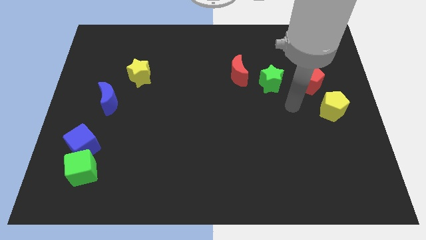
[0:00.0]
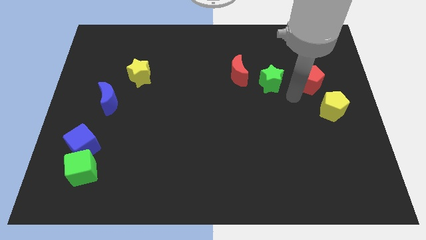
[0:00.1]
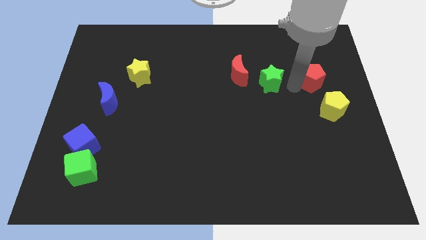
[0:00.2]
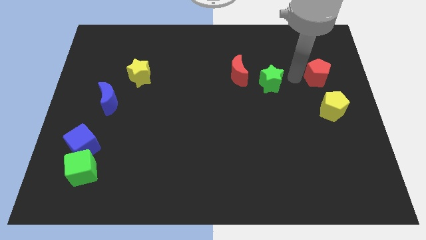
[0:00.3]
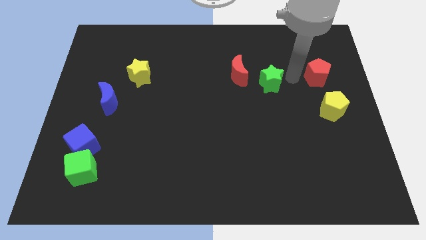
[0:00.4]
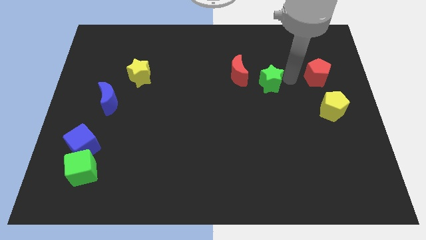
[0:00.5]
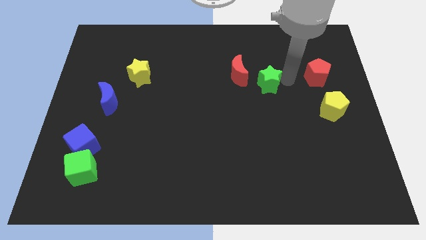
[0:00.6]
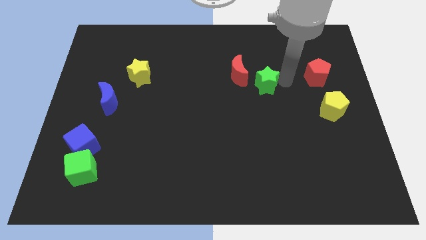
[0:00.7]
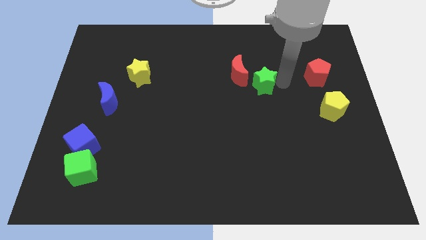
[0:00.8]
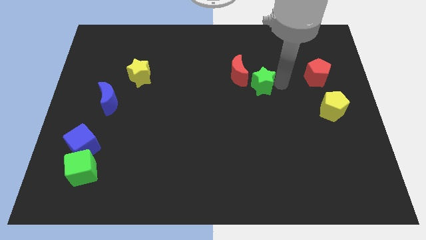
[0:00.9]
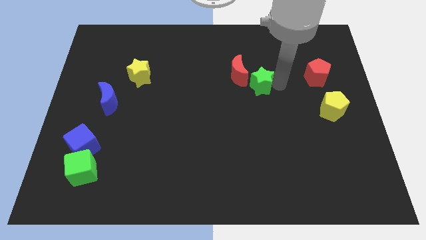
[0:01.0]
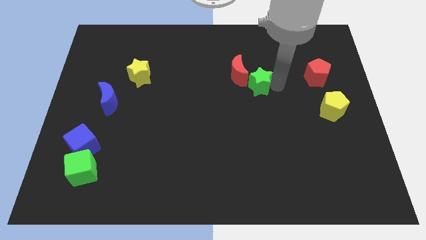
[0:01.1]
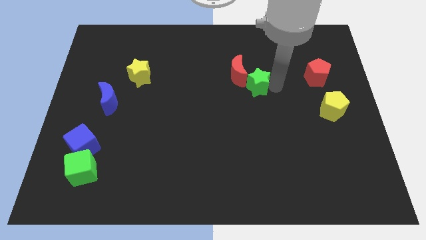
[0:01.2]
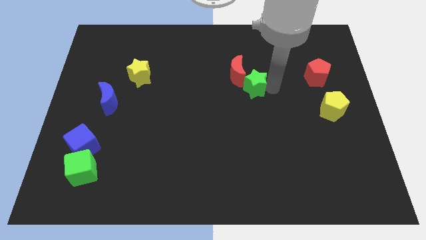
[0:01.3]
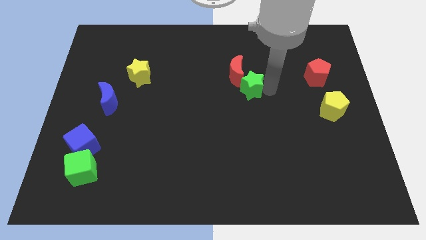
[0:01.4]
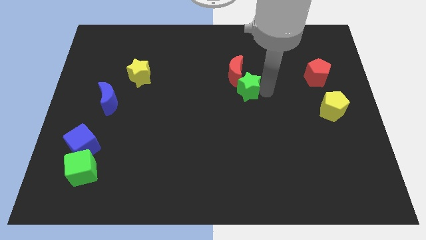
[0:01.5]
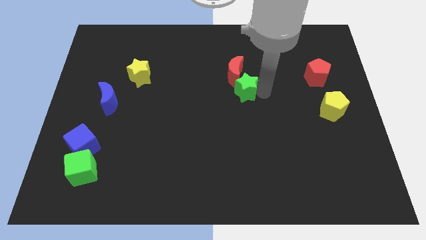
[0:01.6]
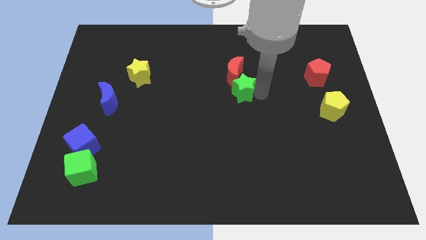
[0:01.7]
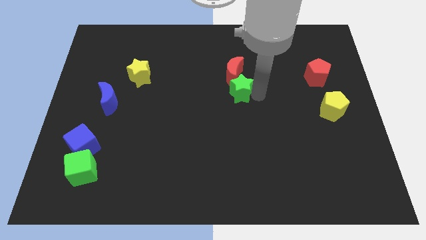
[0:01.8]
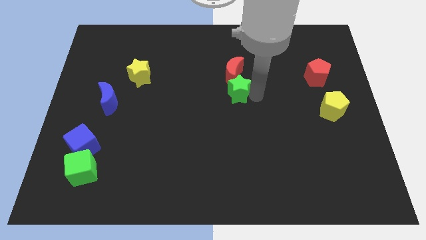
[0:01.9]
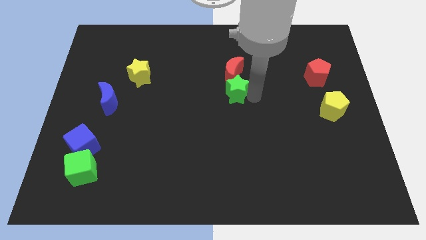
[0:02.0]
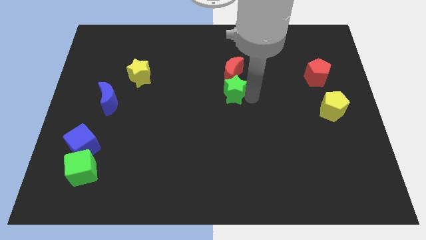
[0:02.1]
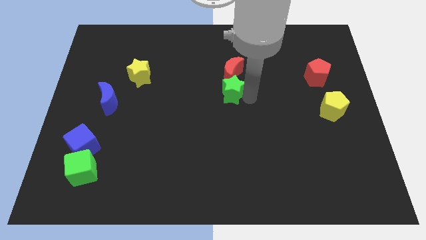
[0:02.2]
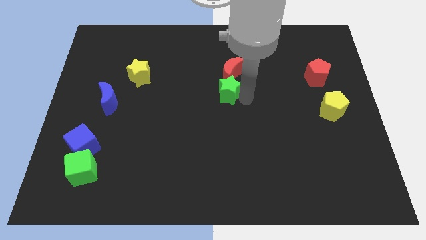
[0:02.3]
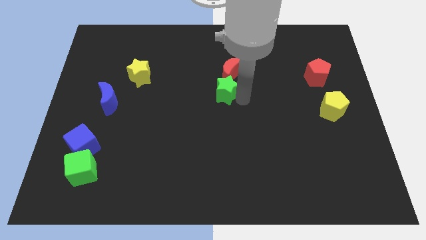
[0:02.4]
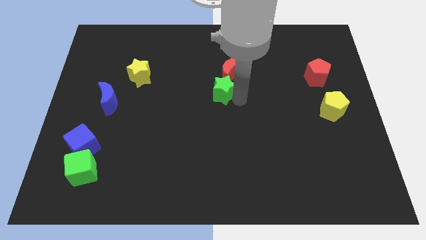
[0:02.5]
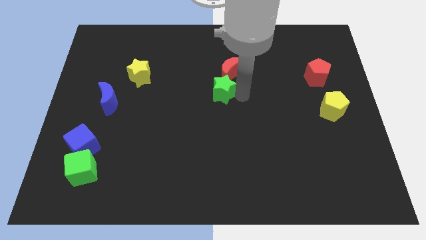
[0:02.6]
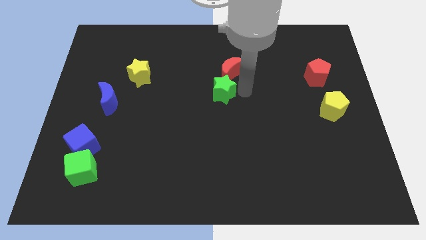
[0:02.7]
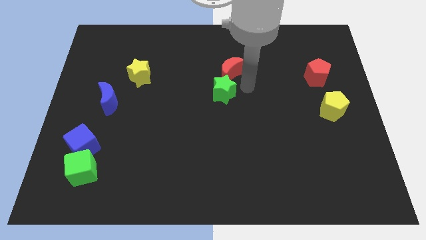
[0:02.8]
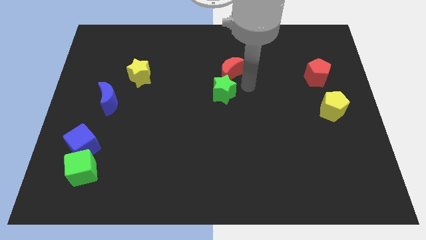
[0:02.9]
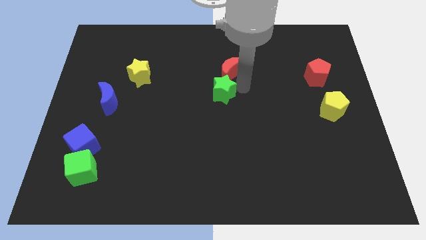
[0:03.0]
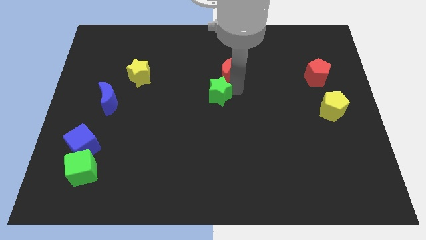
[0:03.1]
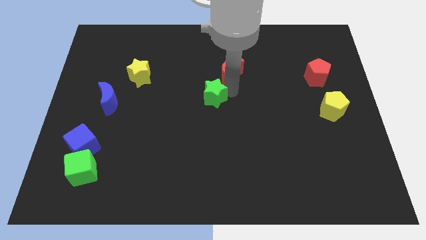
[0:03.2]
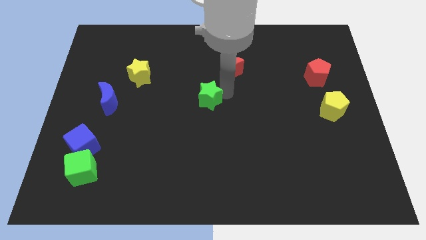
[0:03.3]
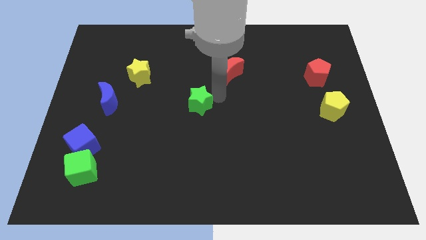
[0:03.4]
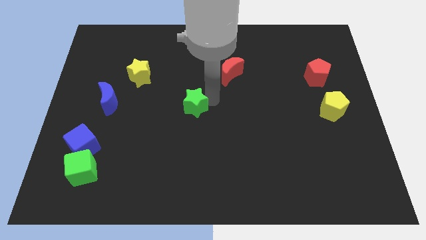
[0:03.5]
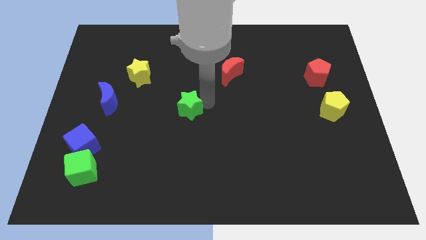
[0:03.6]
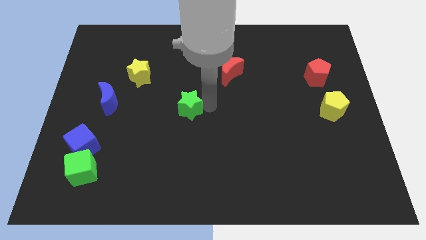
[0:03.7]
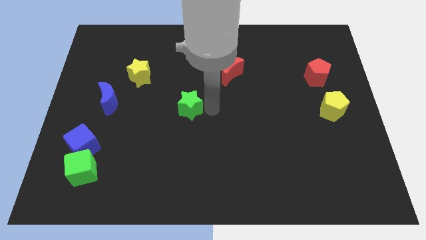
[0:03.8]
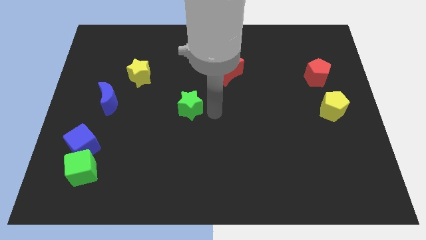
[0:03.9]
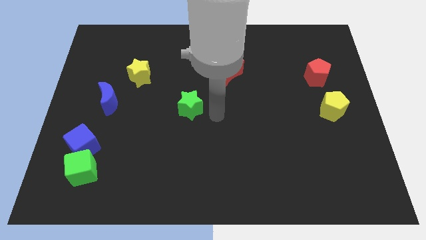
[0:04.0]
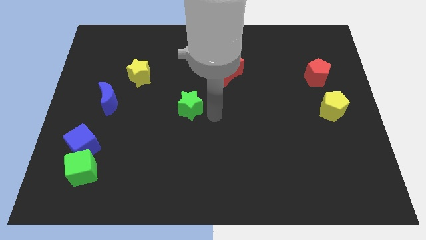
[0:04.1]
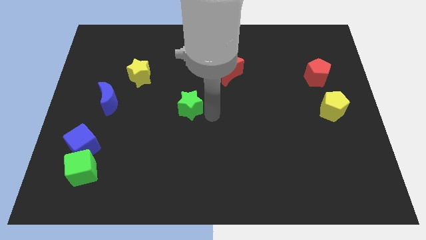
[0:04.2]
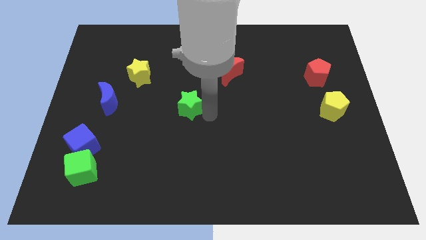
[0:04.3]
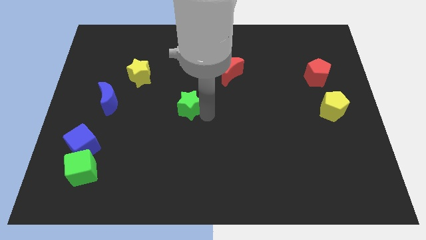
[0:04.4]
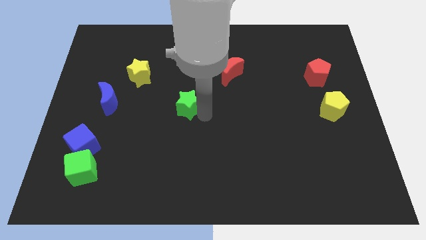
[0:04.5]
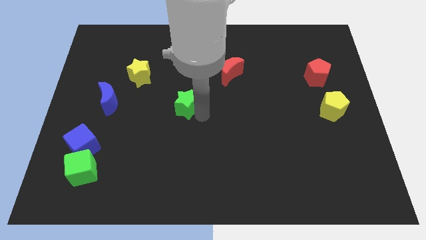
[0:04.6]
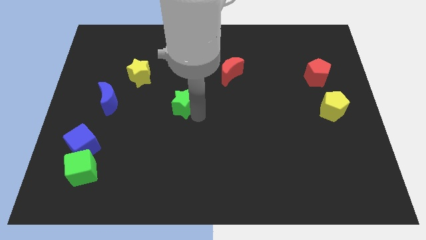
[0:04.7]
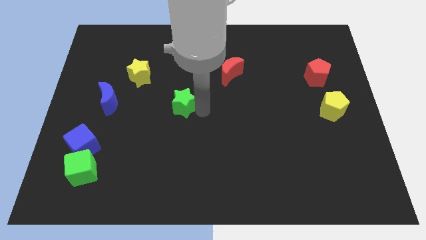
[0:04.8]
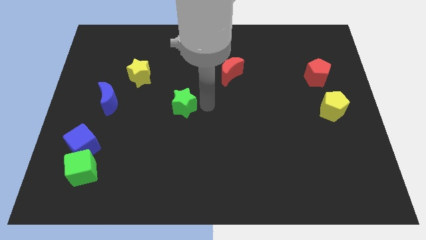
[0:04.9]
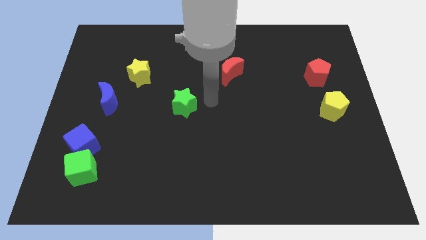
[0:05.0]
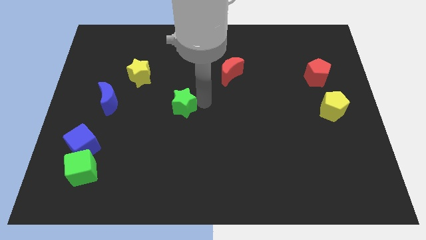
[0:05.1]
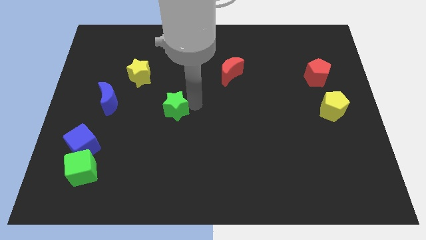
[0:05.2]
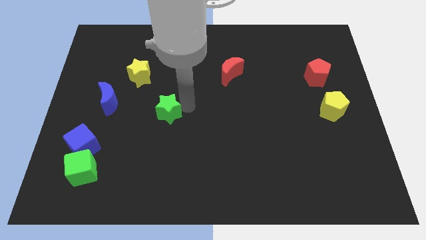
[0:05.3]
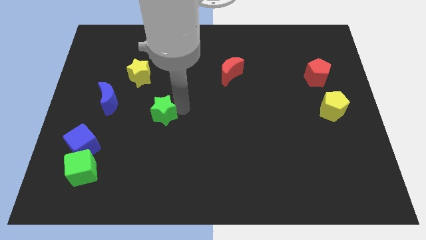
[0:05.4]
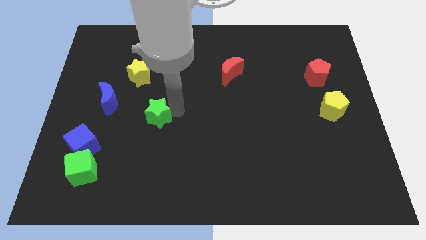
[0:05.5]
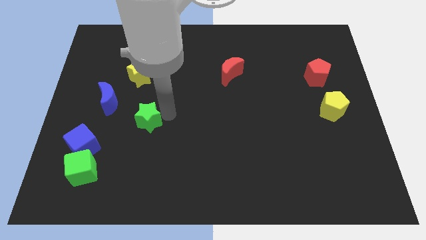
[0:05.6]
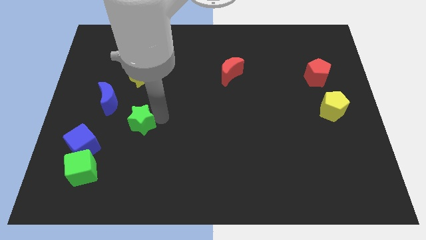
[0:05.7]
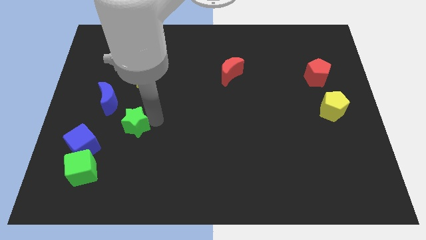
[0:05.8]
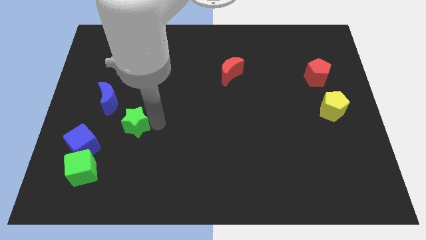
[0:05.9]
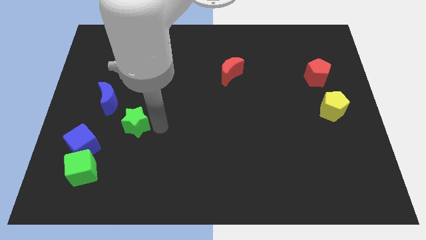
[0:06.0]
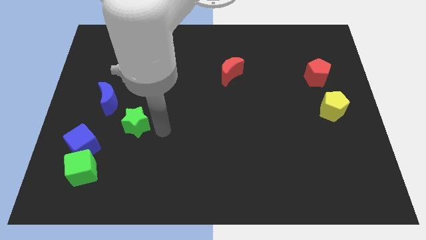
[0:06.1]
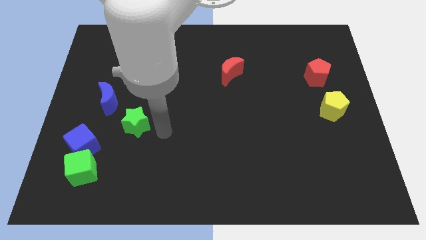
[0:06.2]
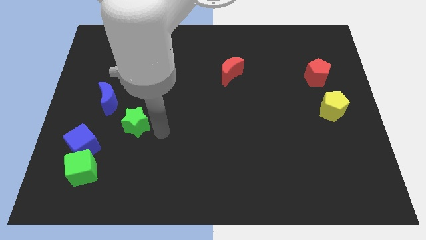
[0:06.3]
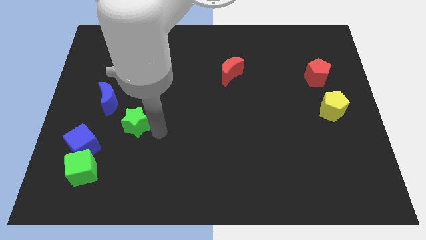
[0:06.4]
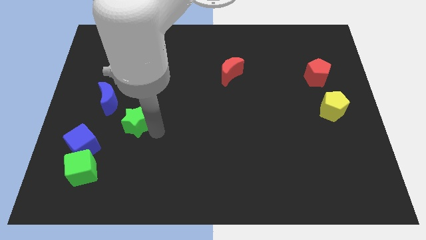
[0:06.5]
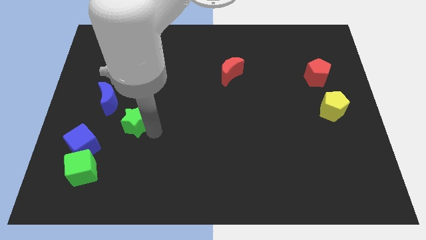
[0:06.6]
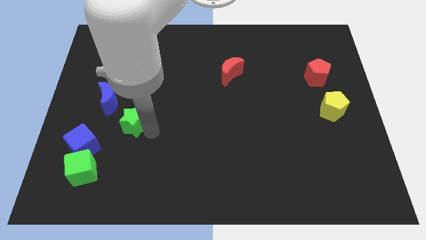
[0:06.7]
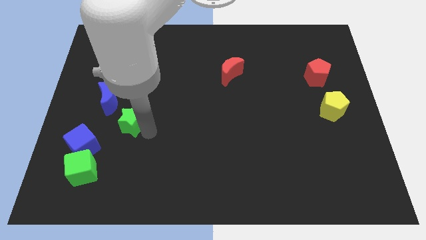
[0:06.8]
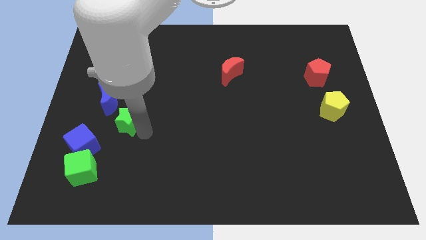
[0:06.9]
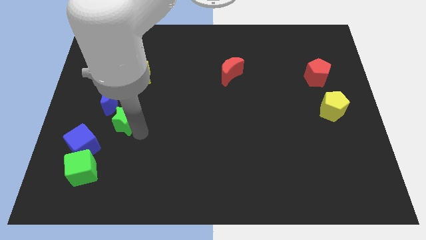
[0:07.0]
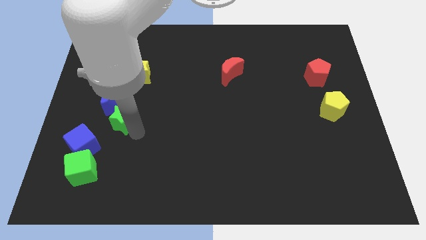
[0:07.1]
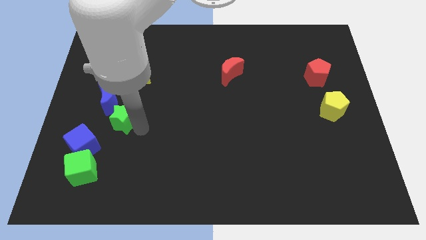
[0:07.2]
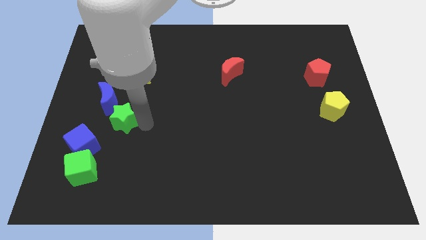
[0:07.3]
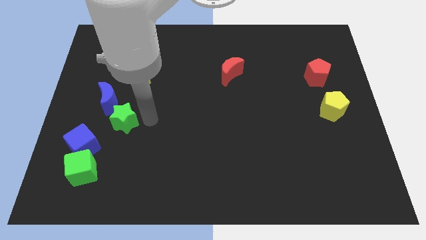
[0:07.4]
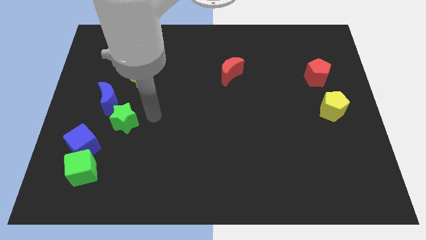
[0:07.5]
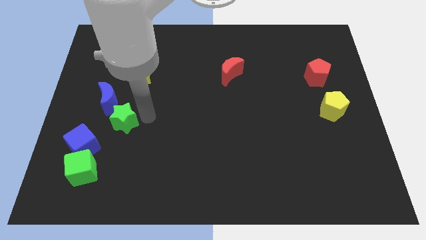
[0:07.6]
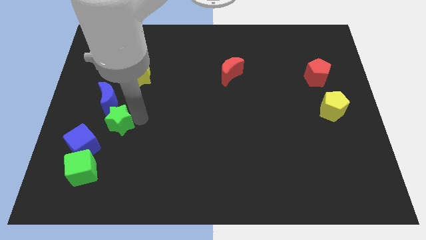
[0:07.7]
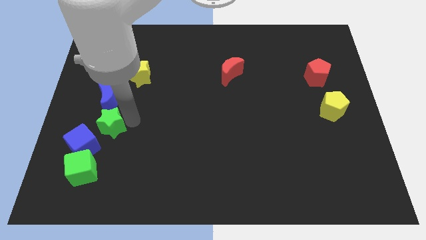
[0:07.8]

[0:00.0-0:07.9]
move the green star to the top side of the green cube
